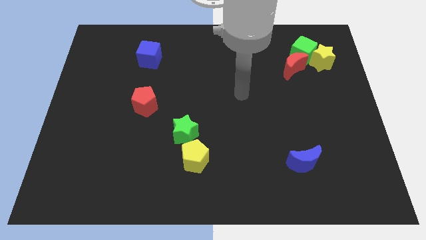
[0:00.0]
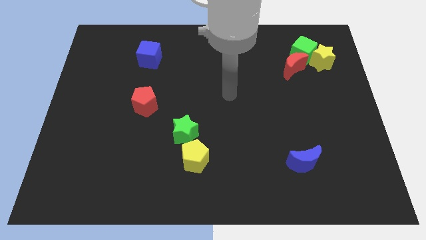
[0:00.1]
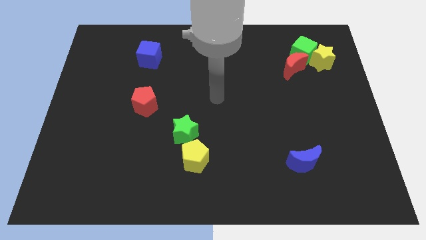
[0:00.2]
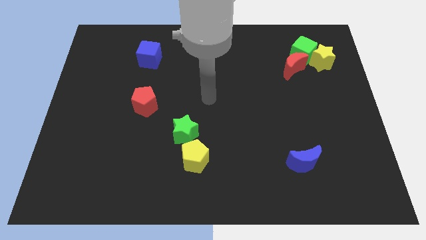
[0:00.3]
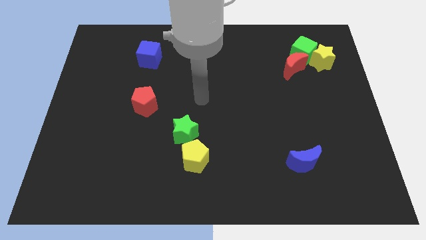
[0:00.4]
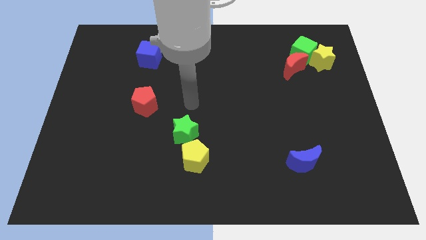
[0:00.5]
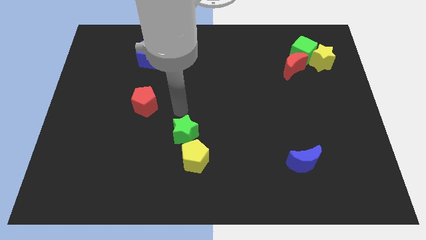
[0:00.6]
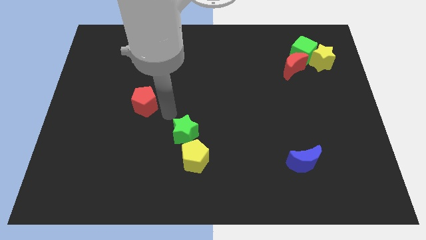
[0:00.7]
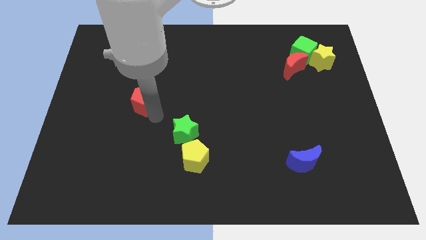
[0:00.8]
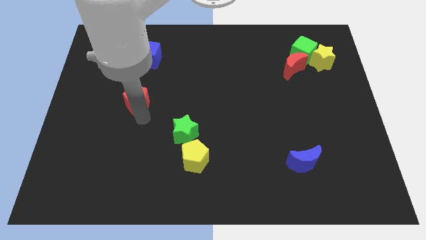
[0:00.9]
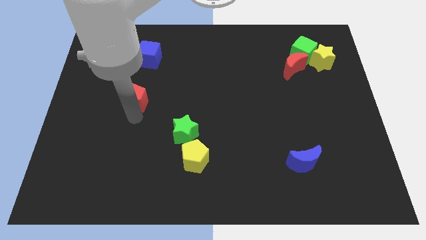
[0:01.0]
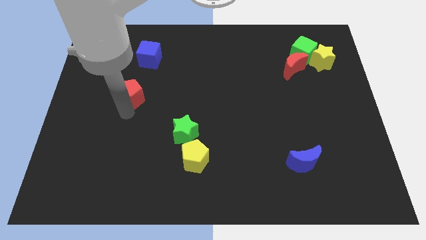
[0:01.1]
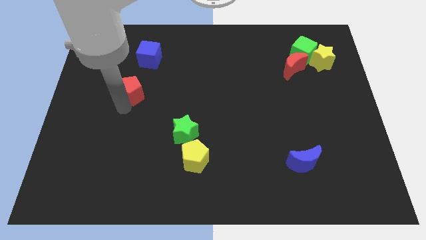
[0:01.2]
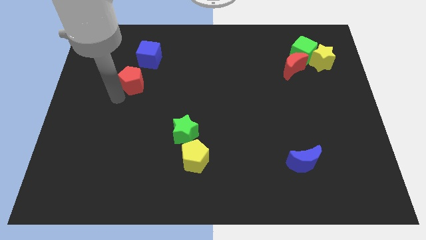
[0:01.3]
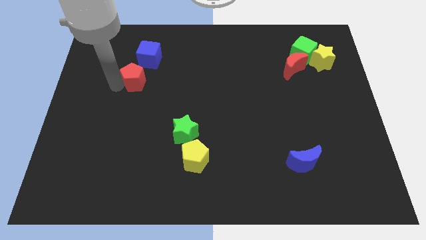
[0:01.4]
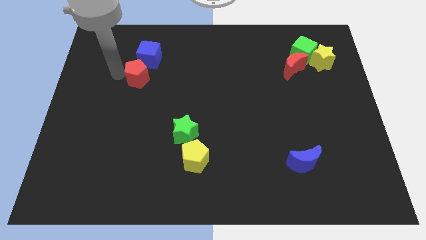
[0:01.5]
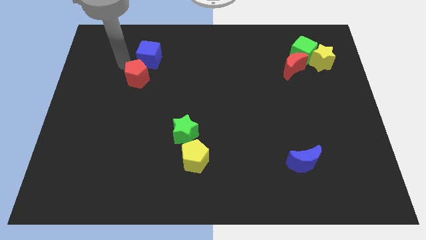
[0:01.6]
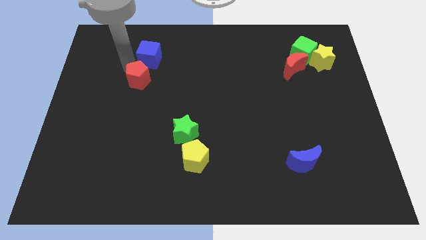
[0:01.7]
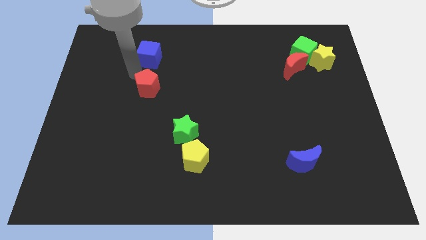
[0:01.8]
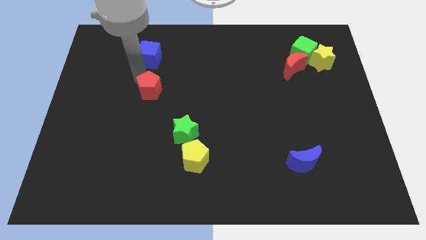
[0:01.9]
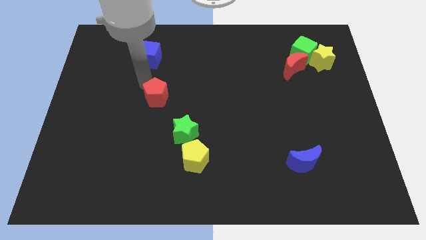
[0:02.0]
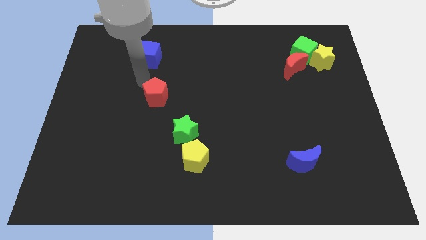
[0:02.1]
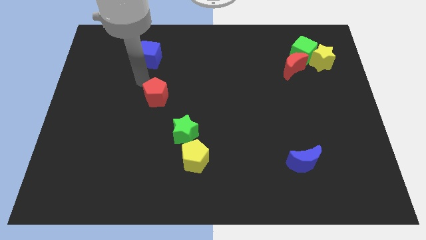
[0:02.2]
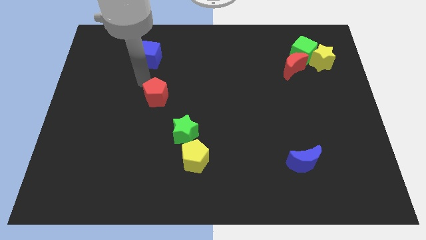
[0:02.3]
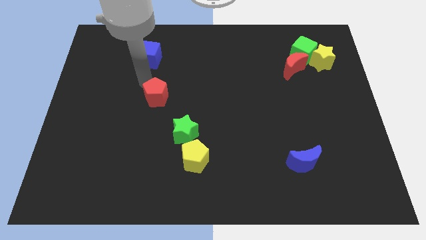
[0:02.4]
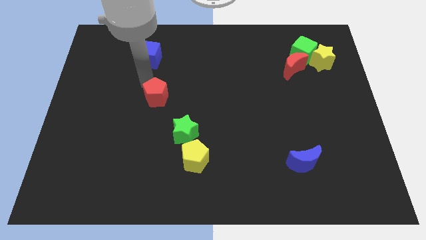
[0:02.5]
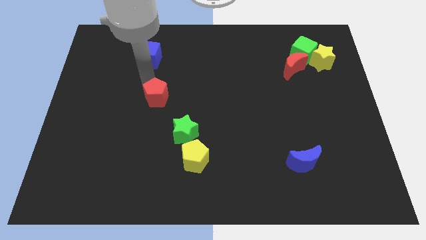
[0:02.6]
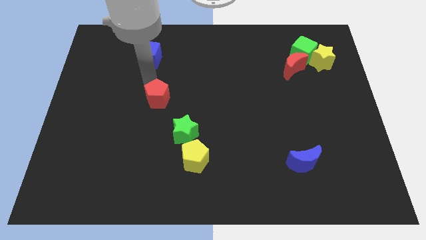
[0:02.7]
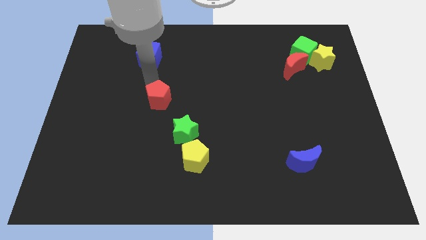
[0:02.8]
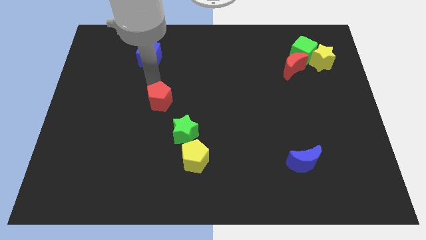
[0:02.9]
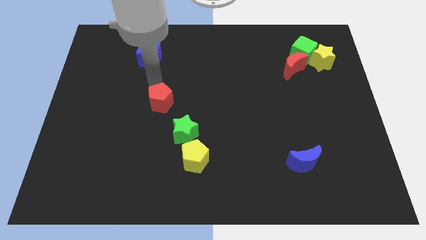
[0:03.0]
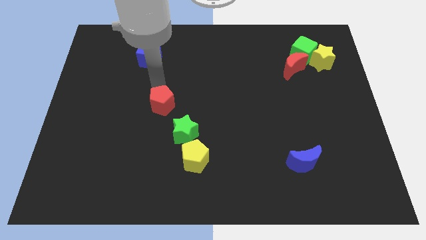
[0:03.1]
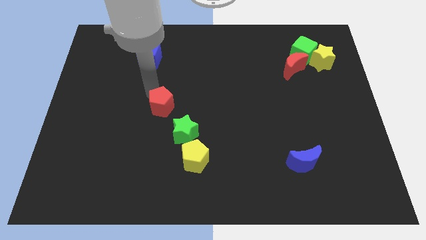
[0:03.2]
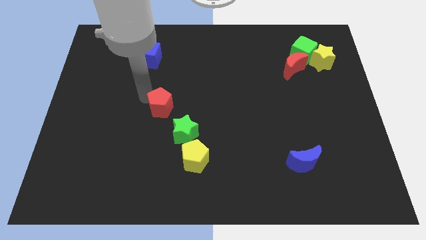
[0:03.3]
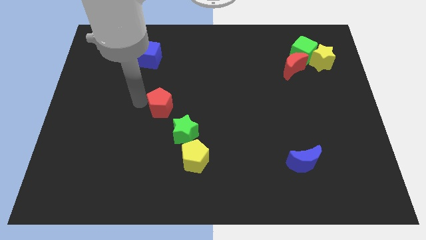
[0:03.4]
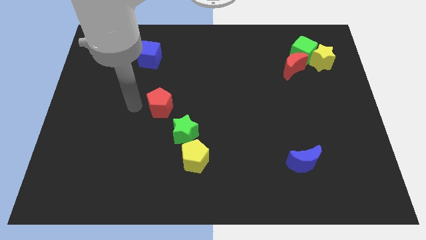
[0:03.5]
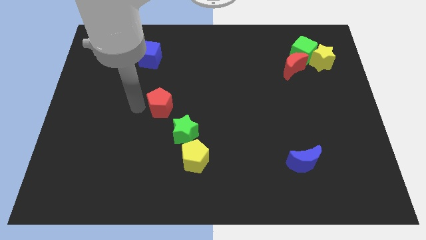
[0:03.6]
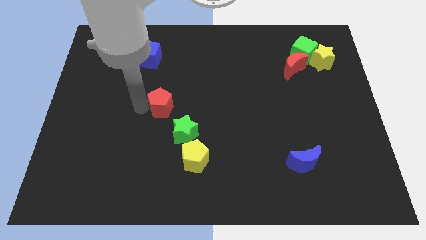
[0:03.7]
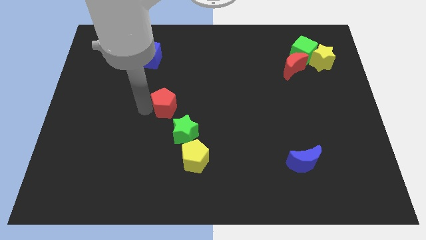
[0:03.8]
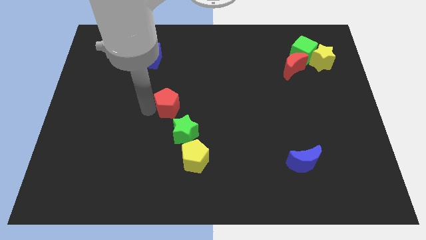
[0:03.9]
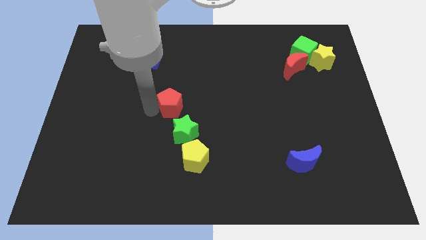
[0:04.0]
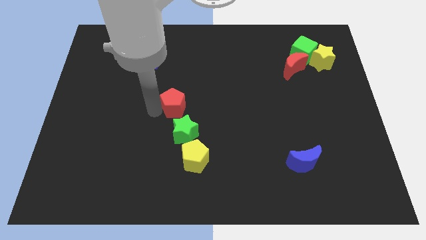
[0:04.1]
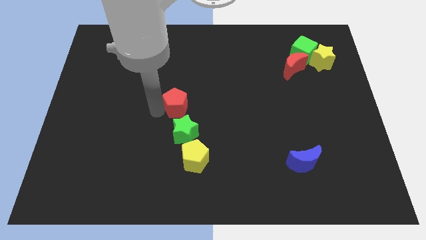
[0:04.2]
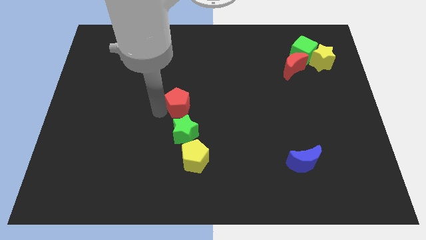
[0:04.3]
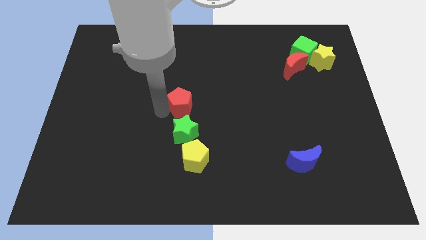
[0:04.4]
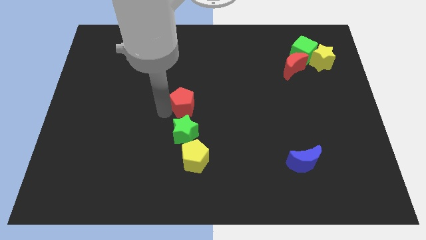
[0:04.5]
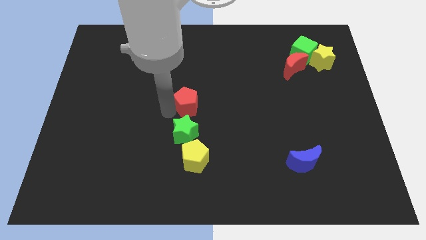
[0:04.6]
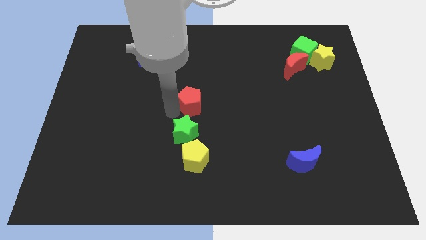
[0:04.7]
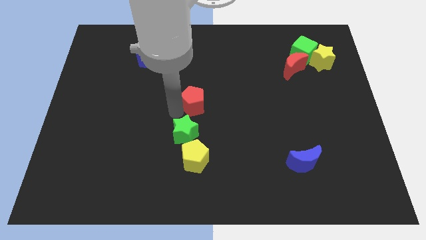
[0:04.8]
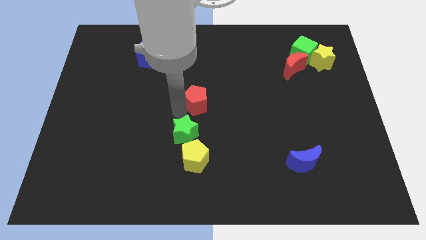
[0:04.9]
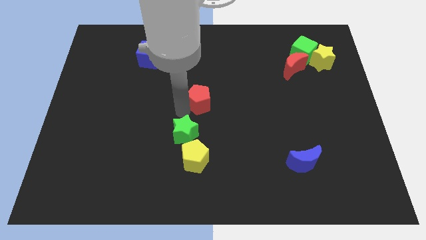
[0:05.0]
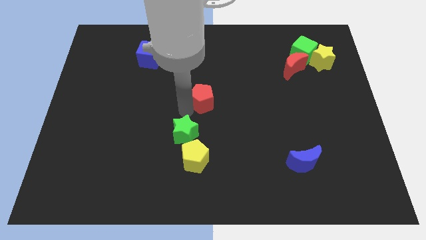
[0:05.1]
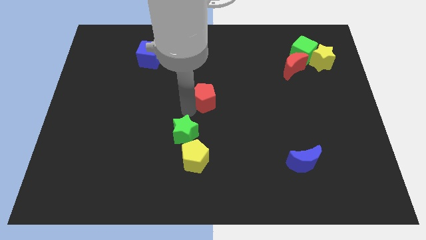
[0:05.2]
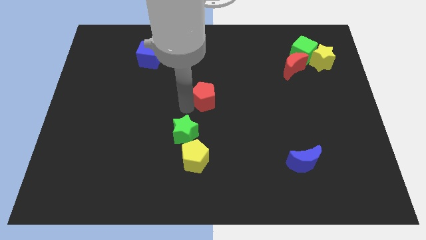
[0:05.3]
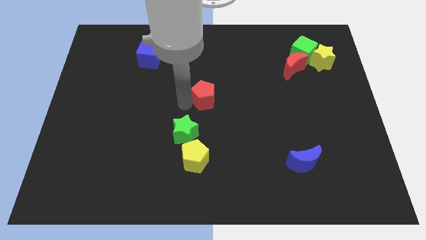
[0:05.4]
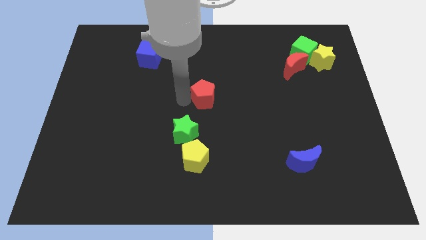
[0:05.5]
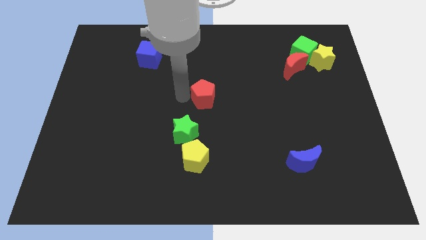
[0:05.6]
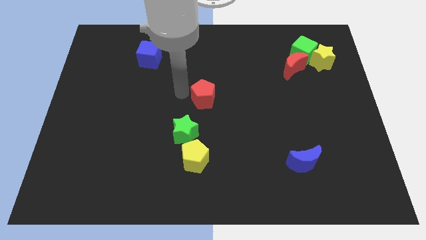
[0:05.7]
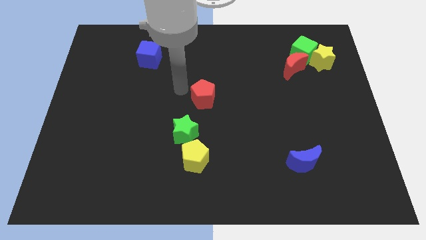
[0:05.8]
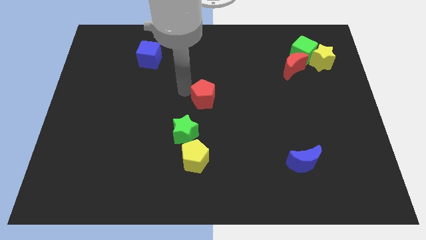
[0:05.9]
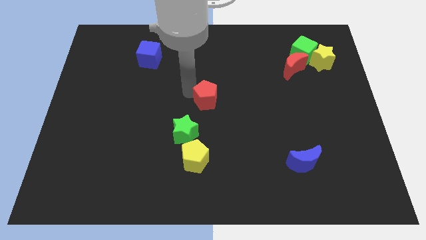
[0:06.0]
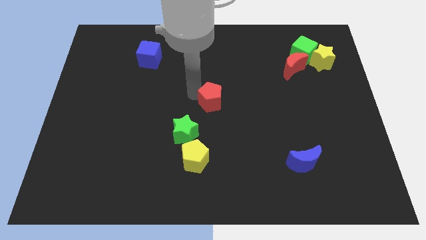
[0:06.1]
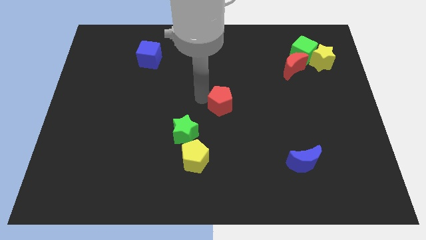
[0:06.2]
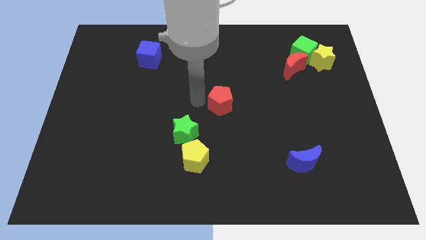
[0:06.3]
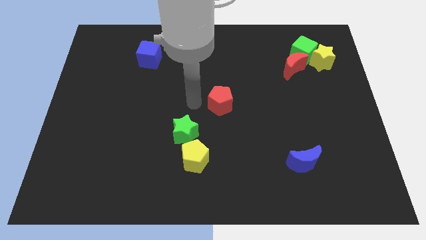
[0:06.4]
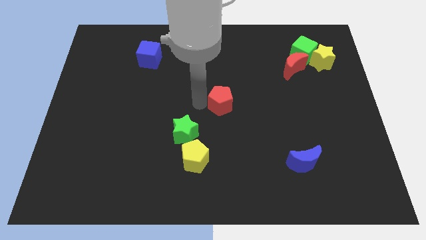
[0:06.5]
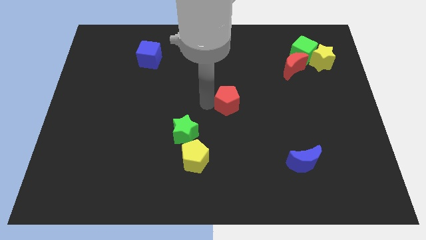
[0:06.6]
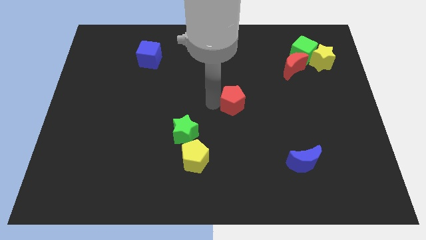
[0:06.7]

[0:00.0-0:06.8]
push the red pentagon to the right

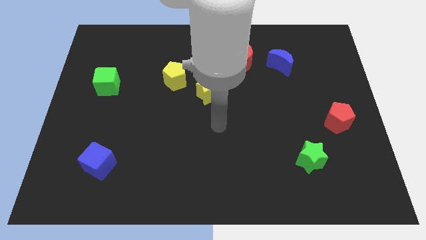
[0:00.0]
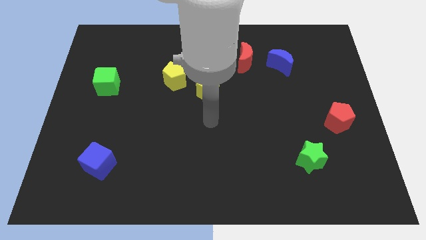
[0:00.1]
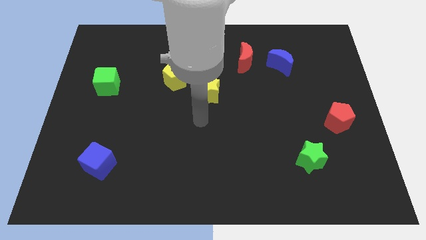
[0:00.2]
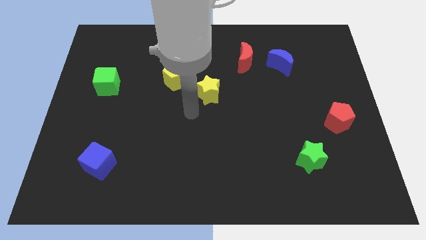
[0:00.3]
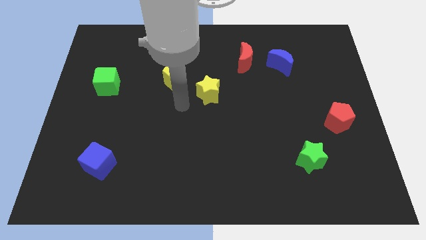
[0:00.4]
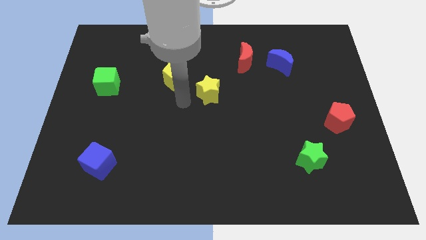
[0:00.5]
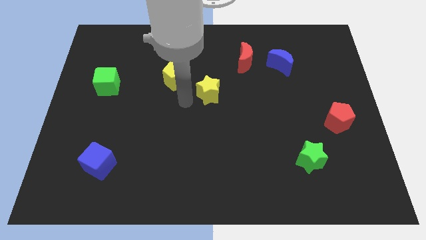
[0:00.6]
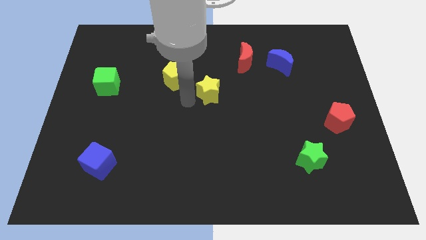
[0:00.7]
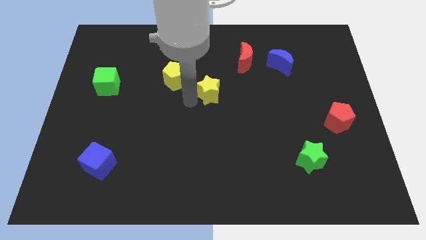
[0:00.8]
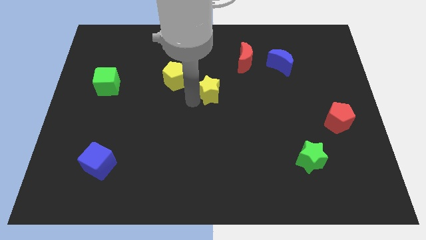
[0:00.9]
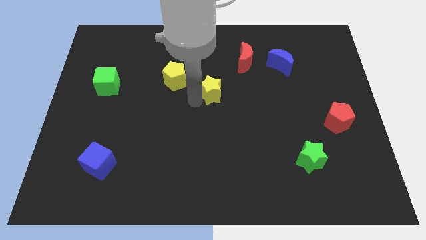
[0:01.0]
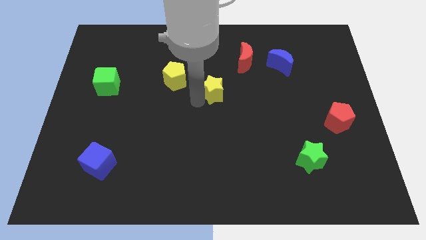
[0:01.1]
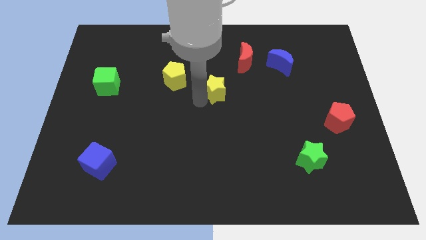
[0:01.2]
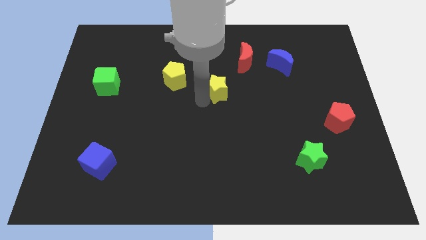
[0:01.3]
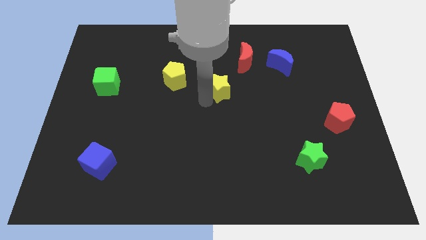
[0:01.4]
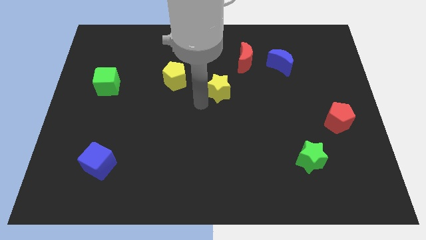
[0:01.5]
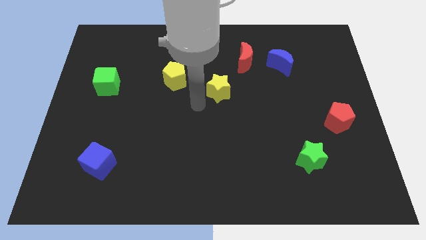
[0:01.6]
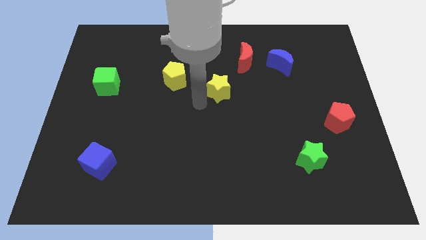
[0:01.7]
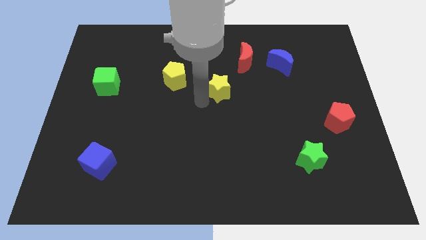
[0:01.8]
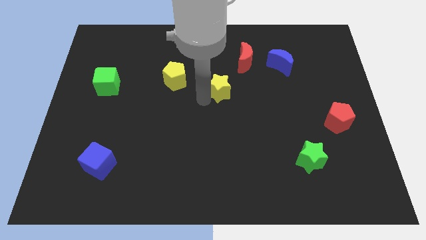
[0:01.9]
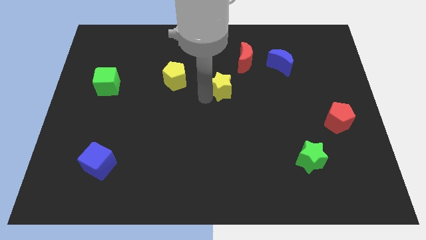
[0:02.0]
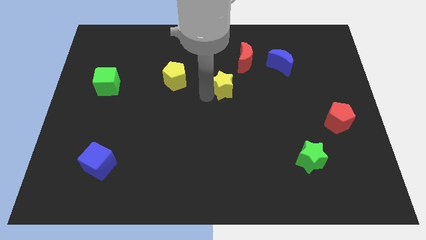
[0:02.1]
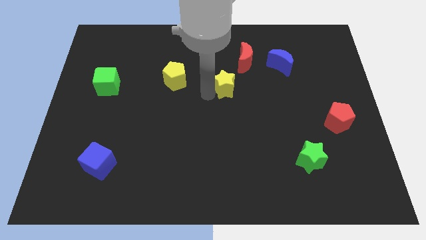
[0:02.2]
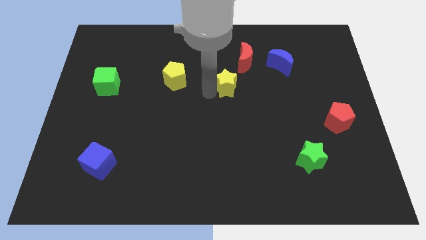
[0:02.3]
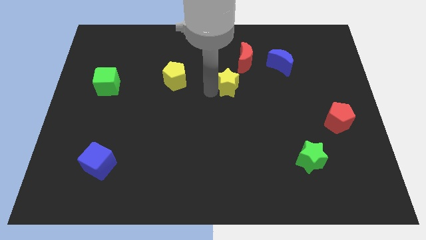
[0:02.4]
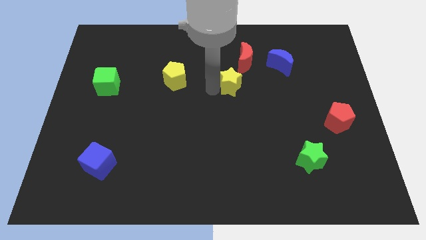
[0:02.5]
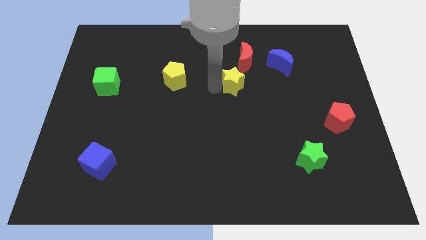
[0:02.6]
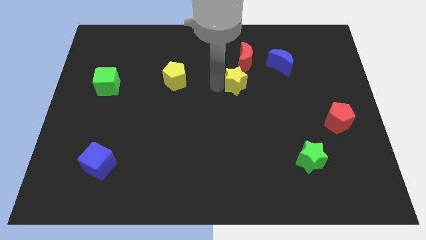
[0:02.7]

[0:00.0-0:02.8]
push the yellow star a bit up and to the right
